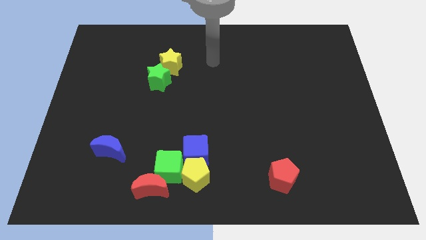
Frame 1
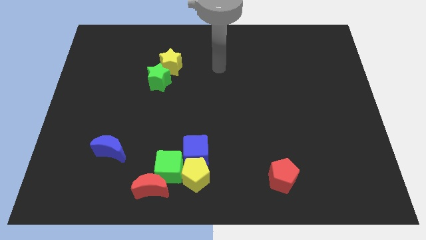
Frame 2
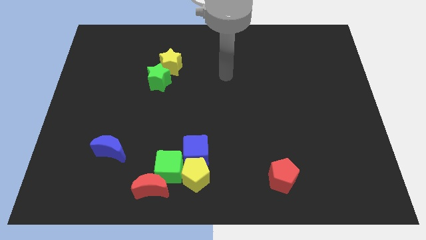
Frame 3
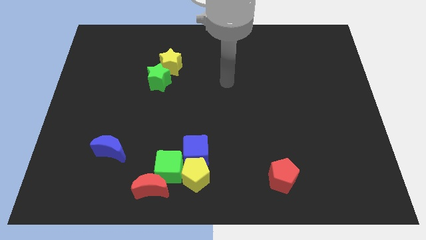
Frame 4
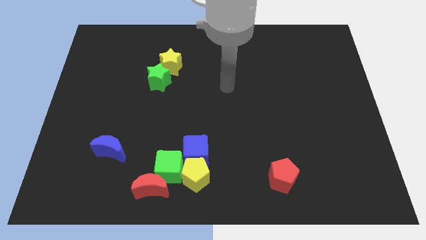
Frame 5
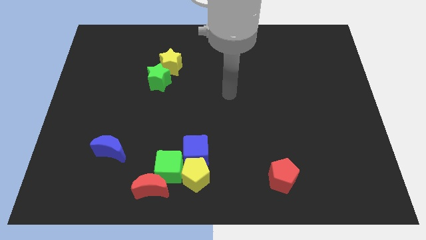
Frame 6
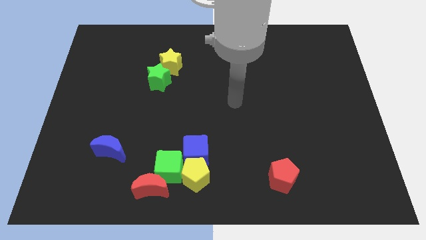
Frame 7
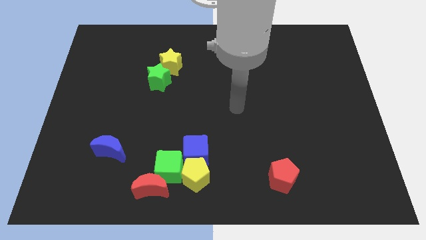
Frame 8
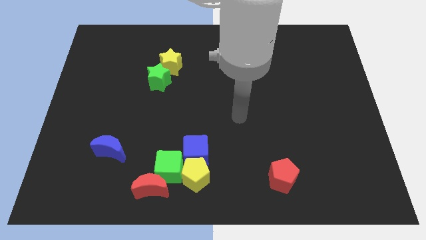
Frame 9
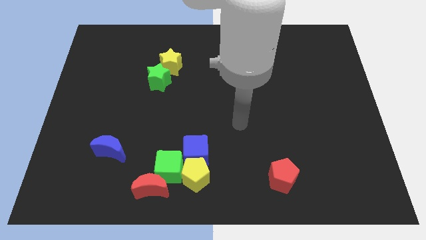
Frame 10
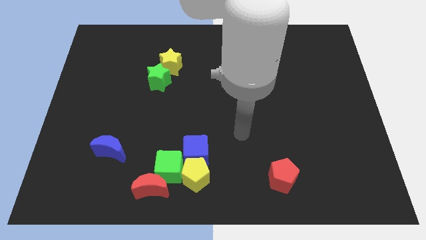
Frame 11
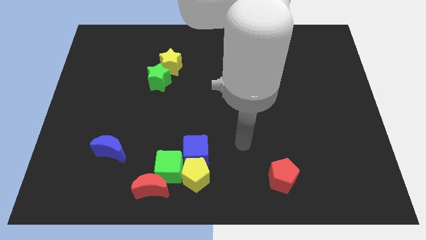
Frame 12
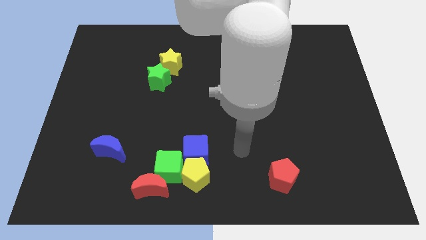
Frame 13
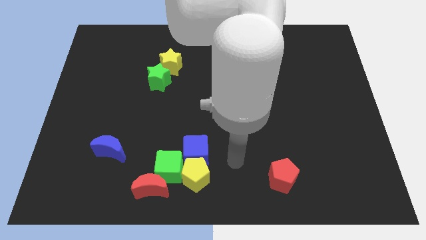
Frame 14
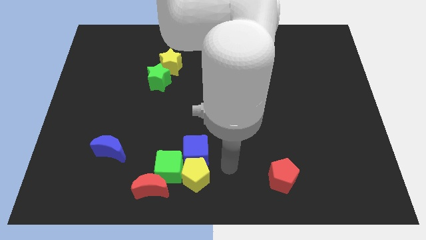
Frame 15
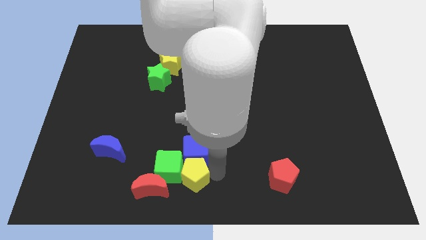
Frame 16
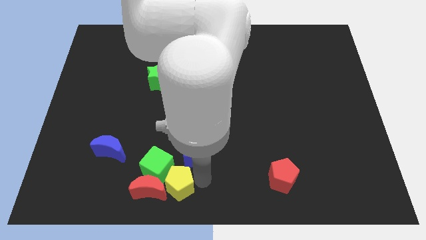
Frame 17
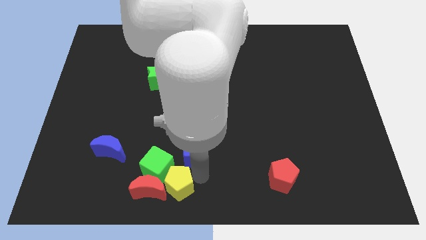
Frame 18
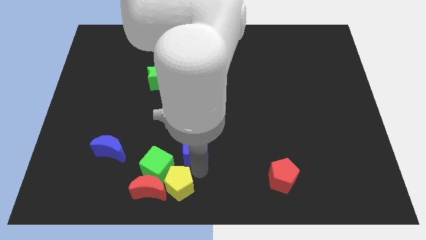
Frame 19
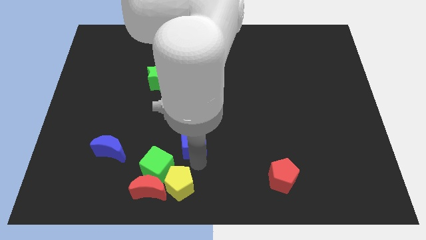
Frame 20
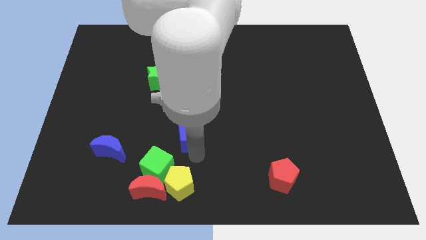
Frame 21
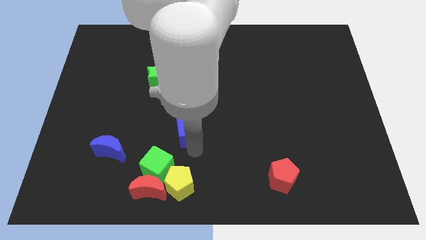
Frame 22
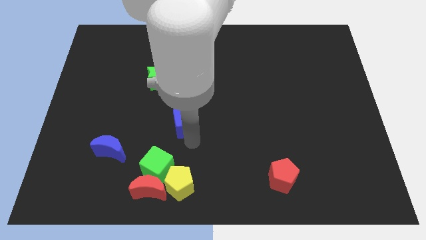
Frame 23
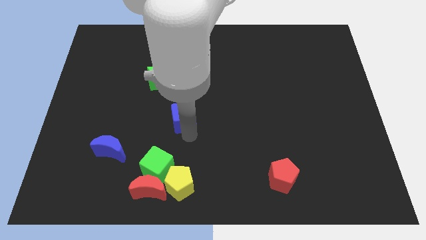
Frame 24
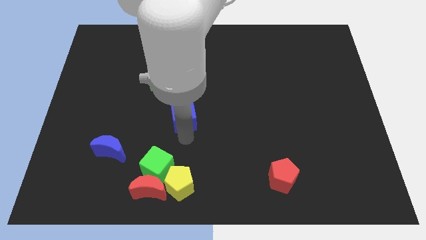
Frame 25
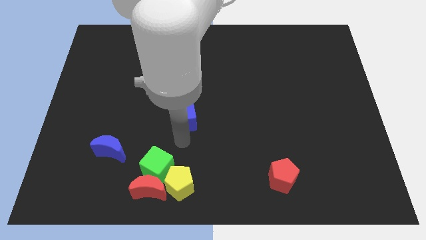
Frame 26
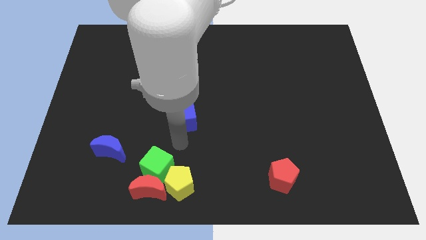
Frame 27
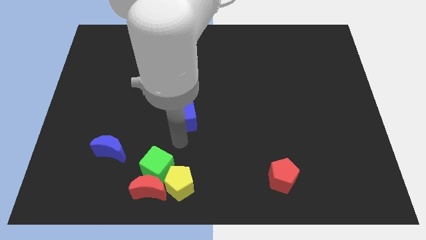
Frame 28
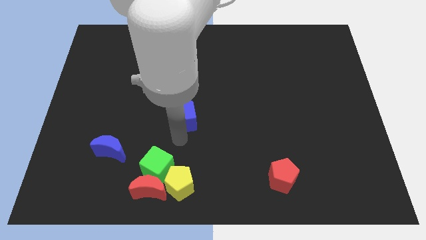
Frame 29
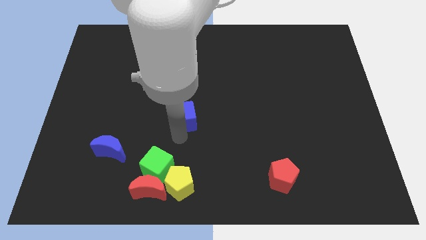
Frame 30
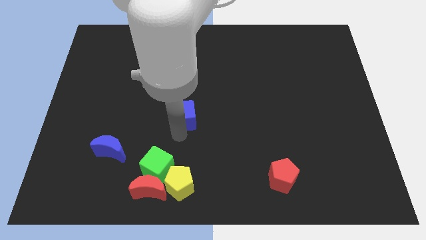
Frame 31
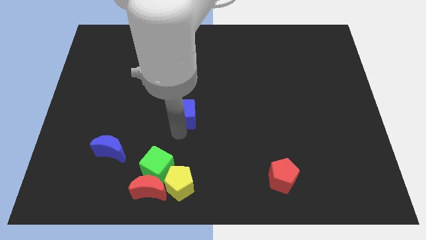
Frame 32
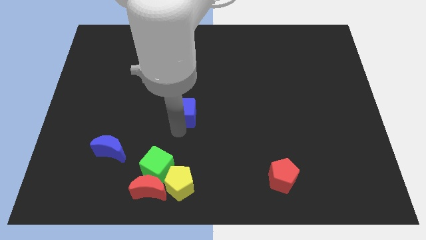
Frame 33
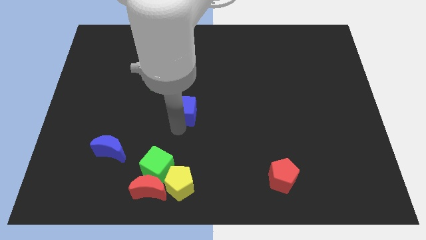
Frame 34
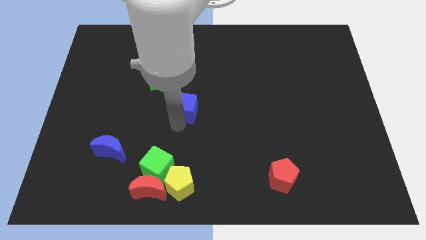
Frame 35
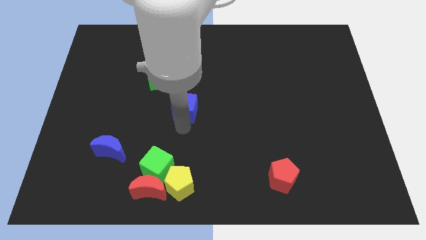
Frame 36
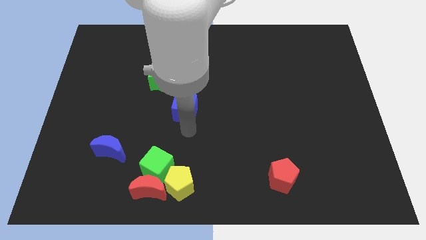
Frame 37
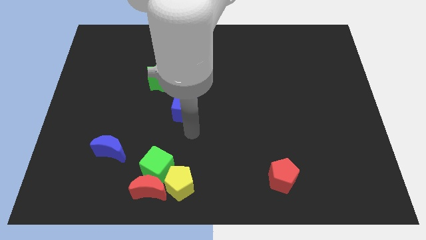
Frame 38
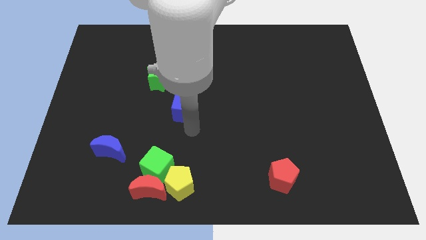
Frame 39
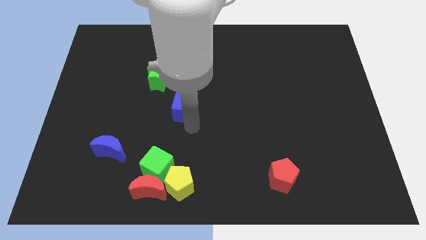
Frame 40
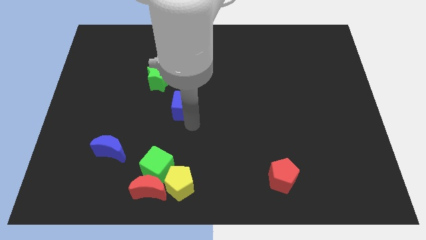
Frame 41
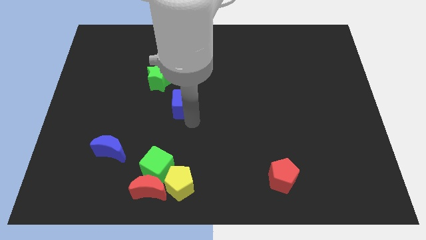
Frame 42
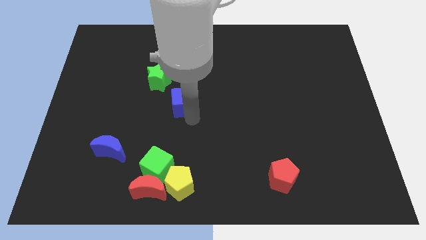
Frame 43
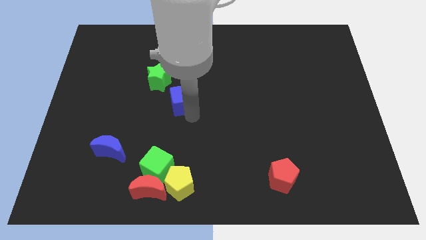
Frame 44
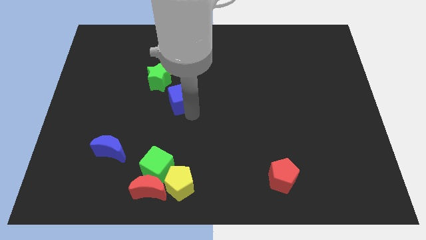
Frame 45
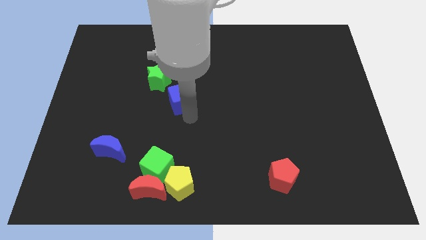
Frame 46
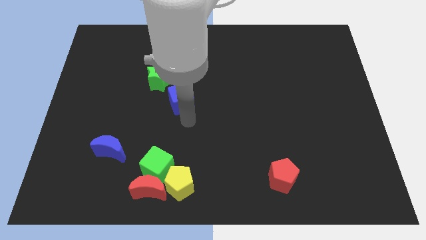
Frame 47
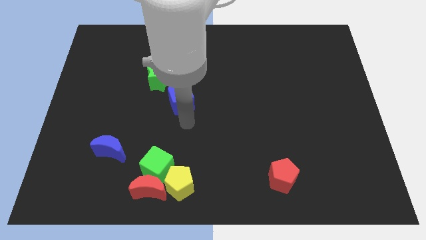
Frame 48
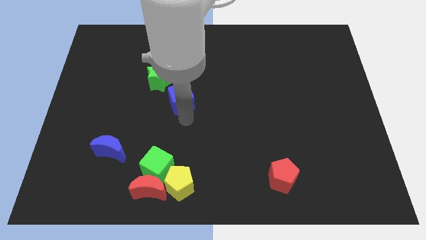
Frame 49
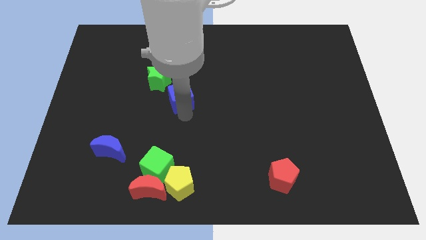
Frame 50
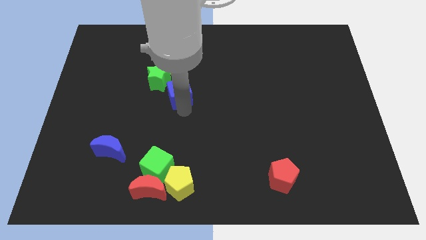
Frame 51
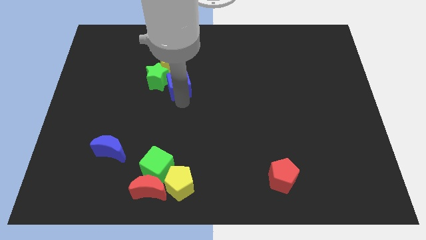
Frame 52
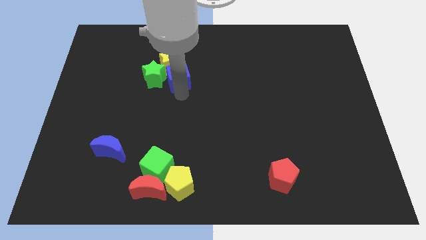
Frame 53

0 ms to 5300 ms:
push the blue cube next to the yellow star

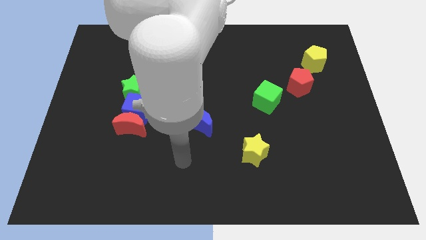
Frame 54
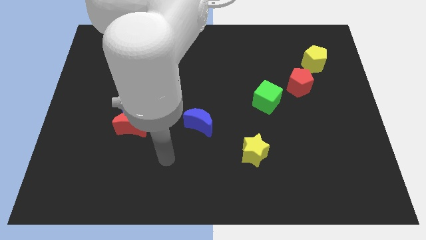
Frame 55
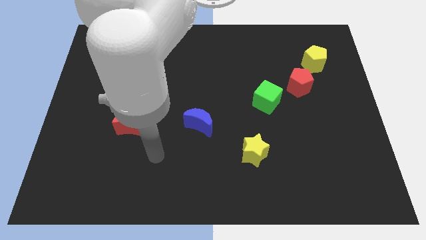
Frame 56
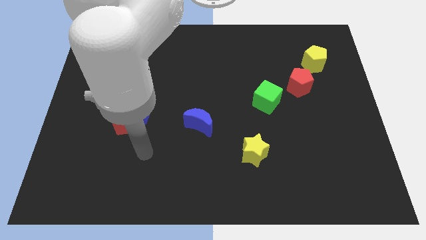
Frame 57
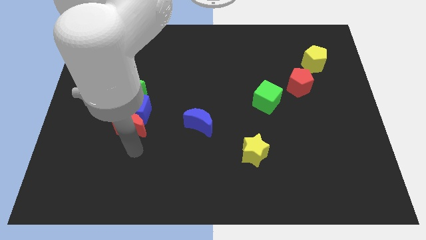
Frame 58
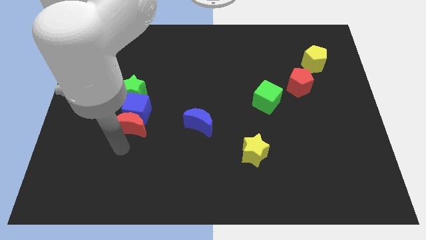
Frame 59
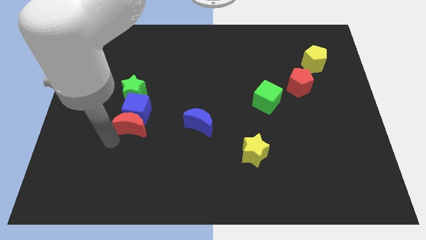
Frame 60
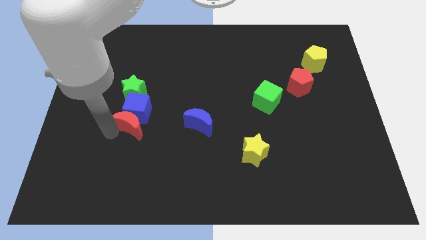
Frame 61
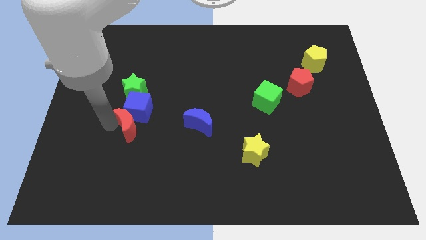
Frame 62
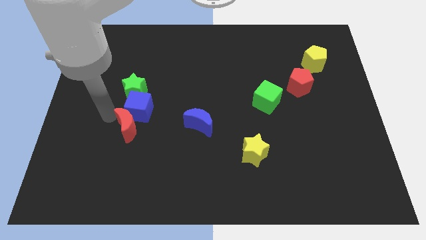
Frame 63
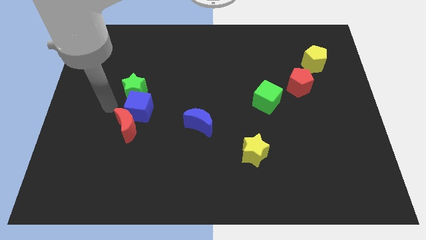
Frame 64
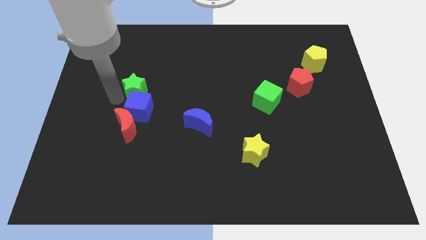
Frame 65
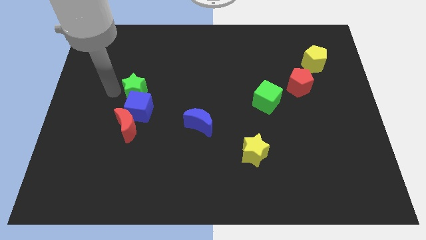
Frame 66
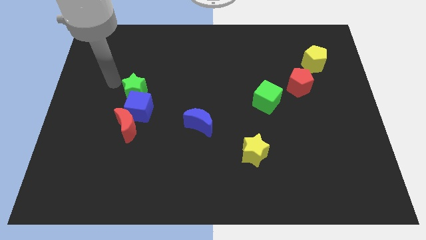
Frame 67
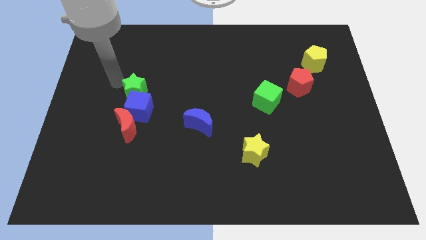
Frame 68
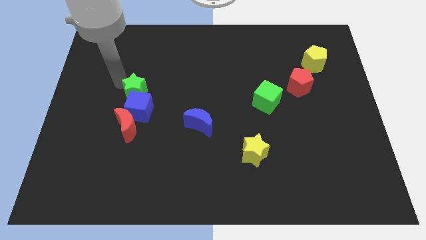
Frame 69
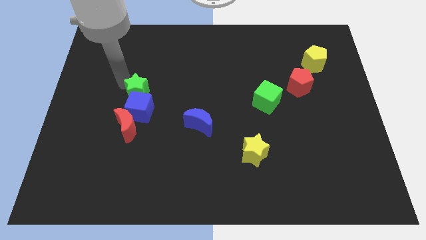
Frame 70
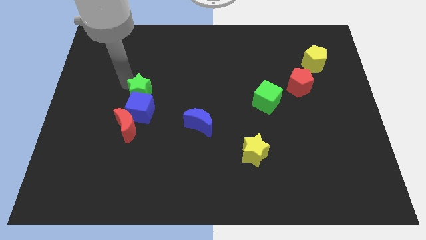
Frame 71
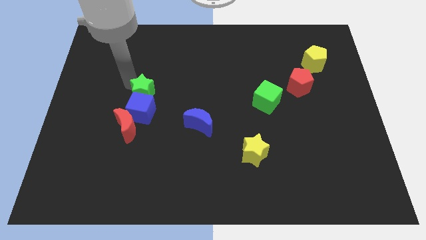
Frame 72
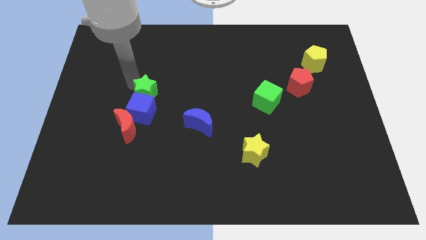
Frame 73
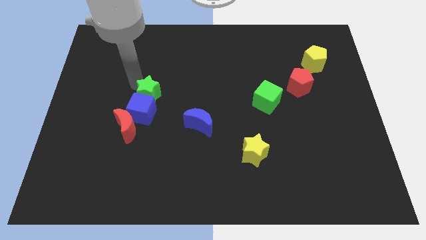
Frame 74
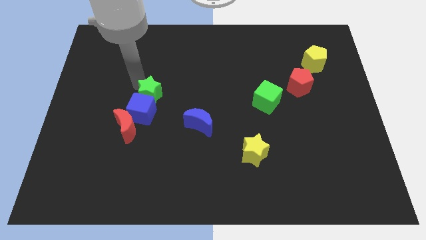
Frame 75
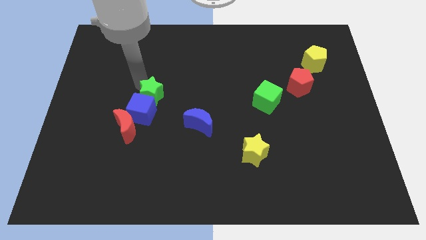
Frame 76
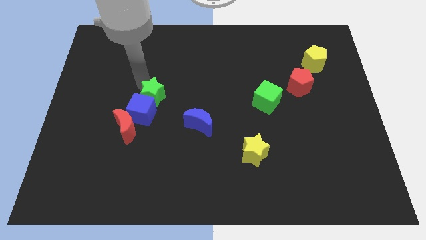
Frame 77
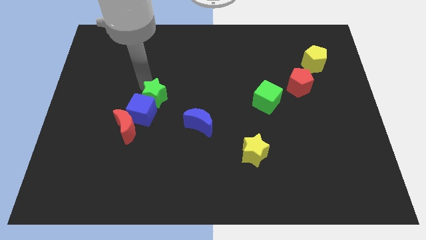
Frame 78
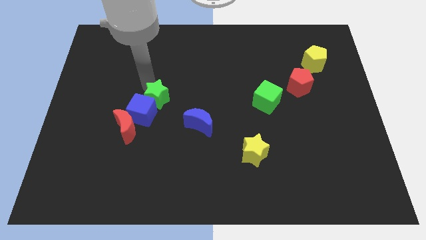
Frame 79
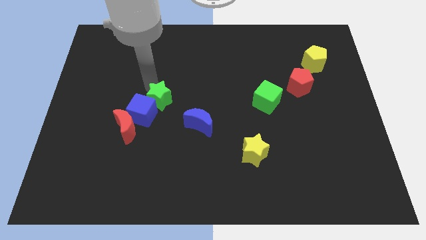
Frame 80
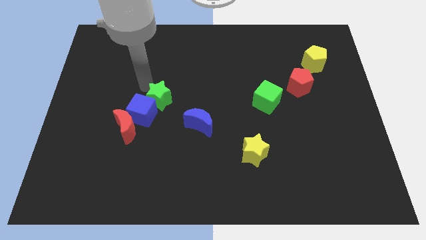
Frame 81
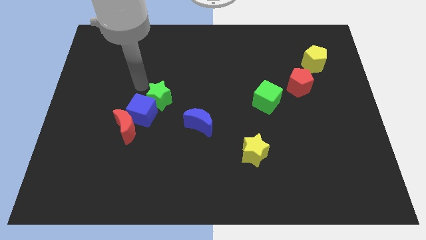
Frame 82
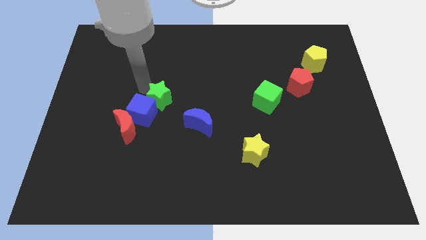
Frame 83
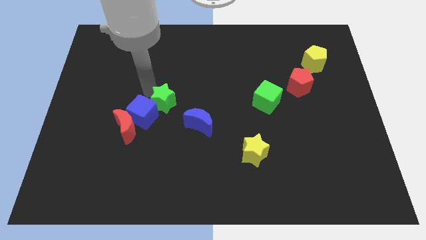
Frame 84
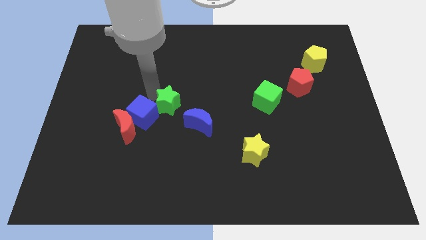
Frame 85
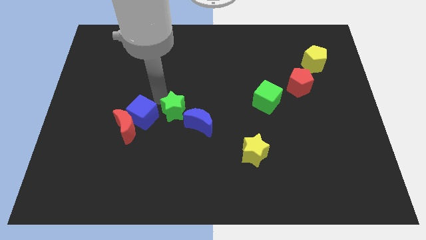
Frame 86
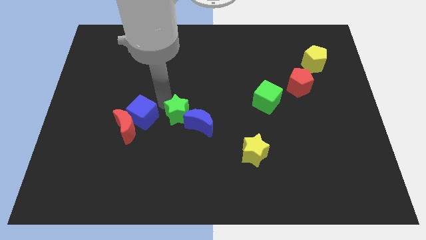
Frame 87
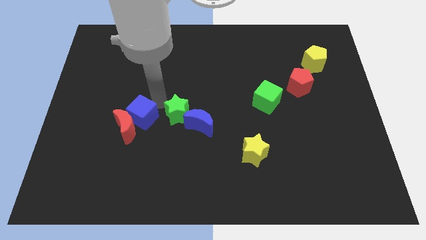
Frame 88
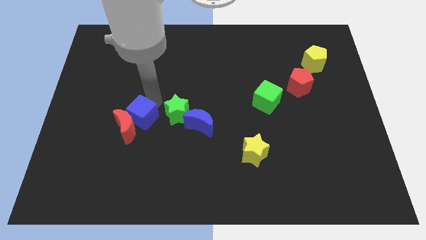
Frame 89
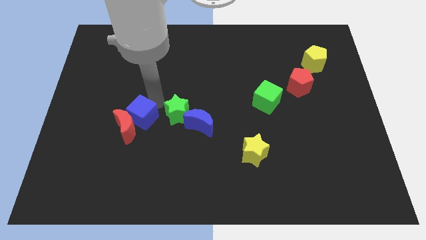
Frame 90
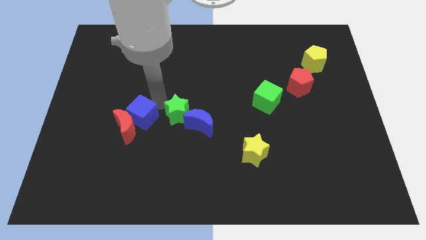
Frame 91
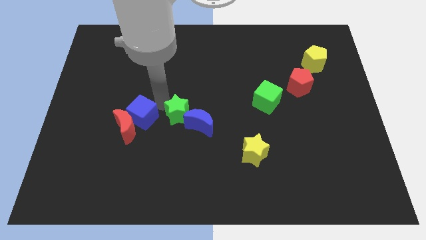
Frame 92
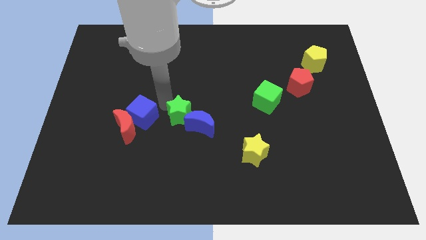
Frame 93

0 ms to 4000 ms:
put the green star to the blue moon
